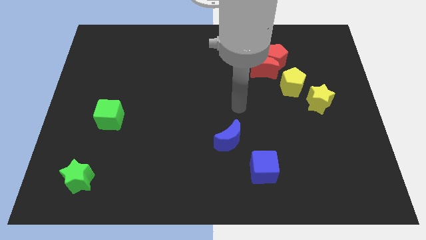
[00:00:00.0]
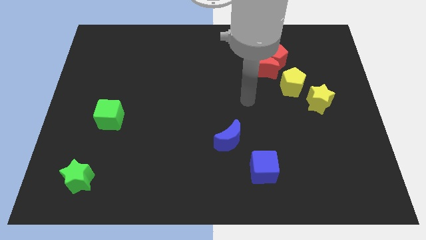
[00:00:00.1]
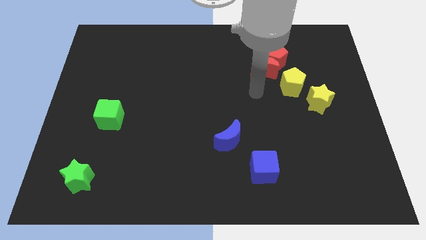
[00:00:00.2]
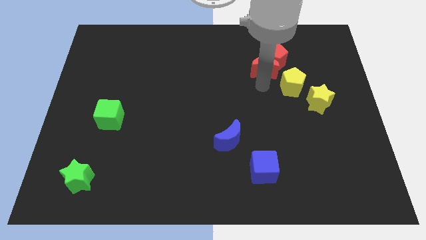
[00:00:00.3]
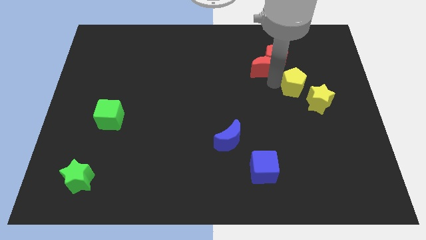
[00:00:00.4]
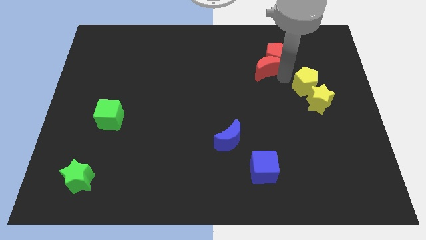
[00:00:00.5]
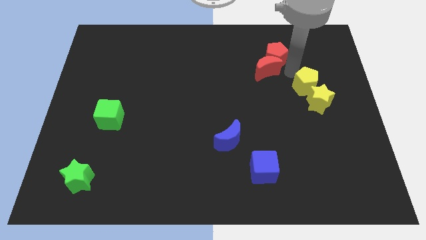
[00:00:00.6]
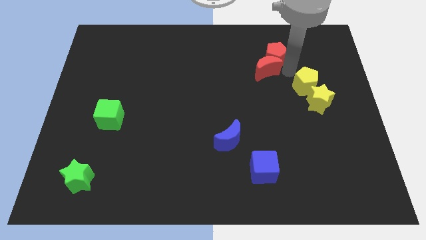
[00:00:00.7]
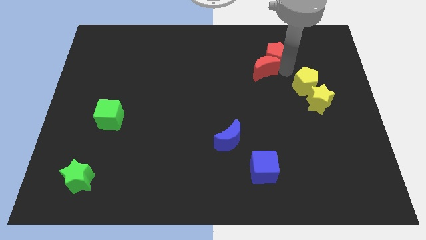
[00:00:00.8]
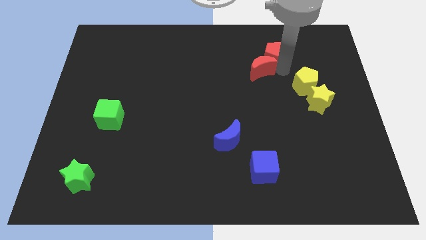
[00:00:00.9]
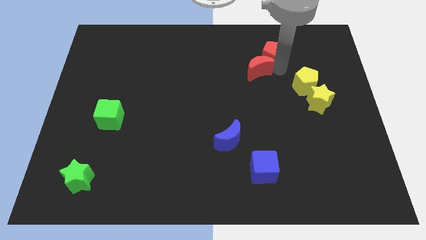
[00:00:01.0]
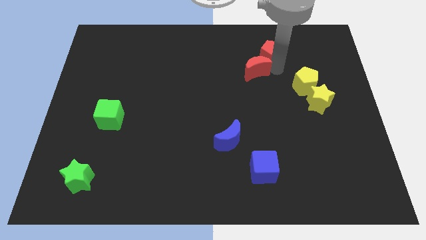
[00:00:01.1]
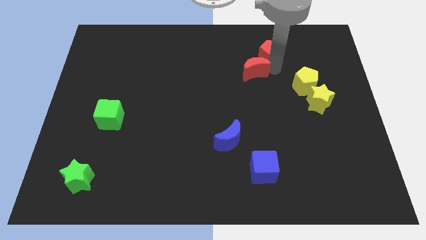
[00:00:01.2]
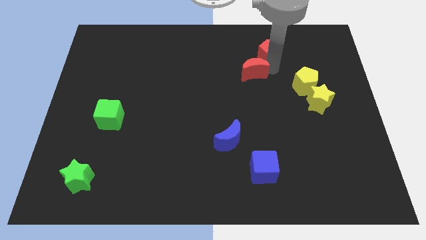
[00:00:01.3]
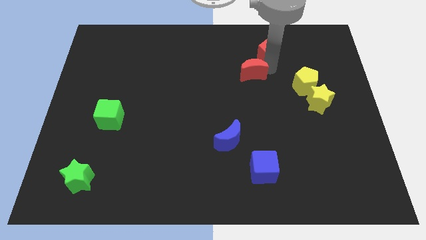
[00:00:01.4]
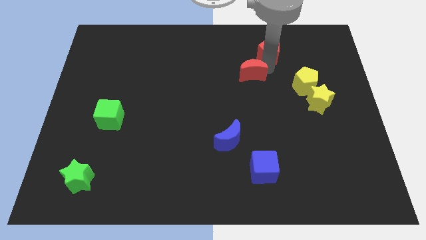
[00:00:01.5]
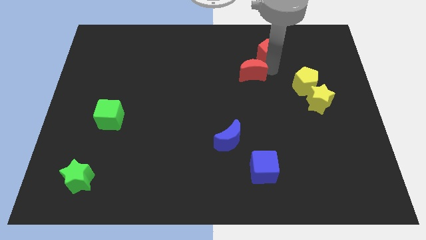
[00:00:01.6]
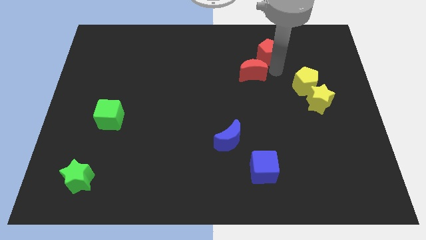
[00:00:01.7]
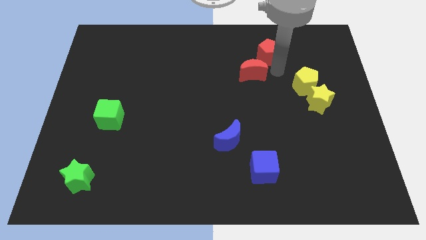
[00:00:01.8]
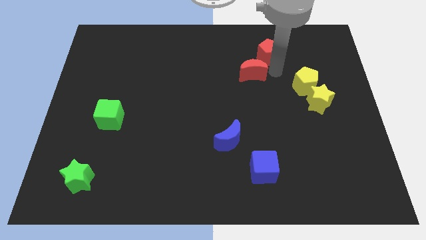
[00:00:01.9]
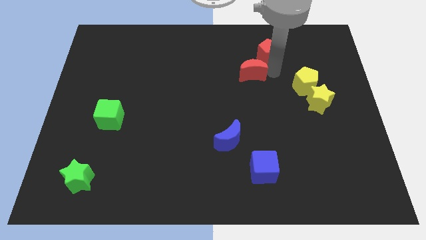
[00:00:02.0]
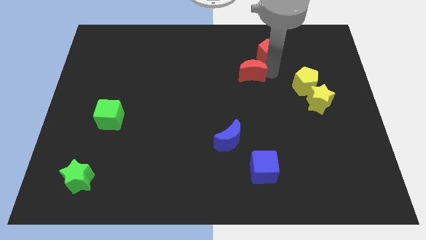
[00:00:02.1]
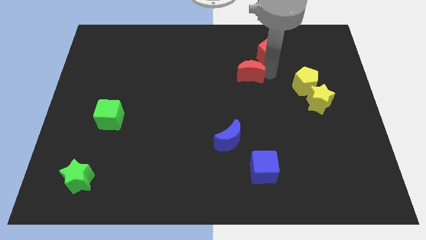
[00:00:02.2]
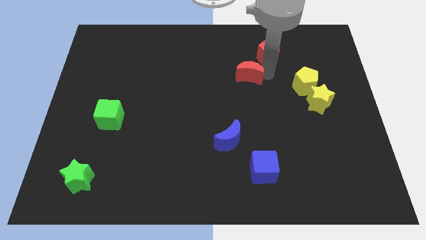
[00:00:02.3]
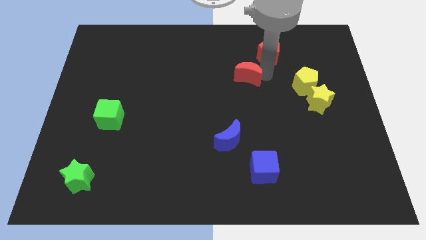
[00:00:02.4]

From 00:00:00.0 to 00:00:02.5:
pull the red moon apart from the red pentagon and yellow pentagon

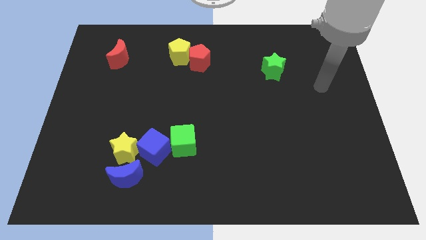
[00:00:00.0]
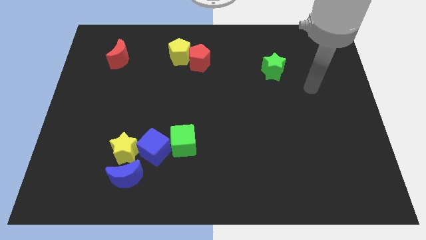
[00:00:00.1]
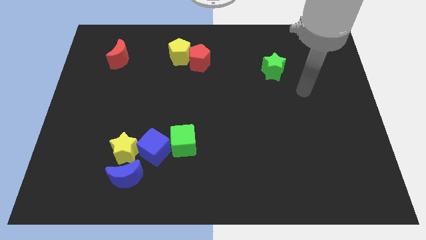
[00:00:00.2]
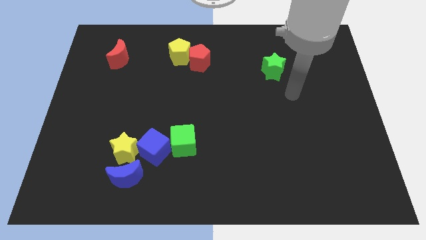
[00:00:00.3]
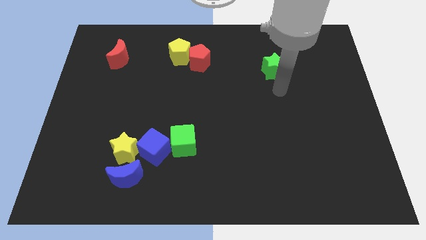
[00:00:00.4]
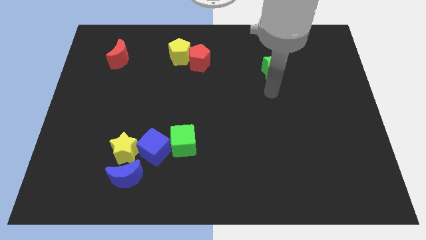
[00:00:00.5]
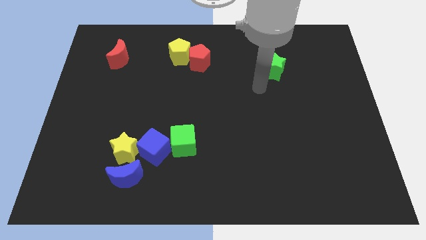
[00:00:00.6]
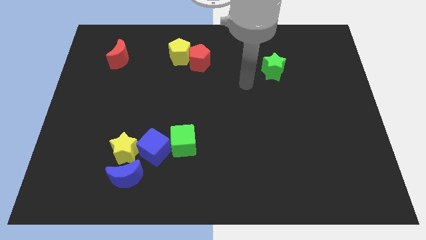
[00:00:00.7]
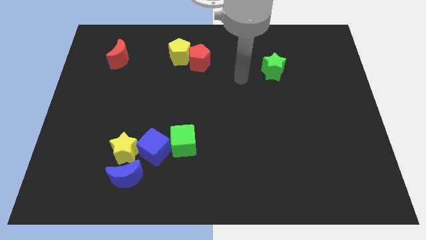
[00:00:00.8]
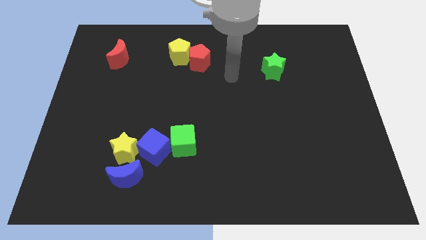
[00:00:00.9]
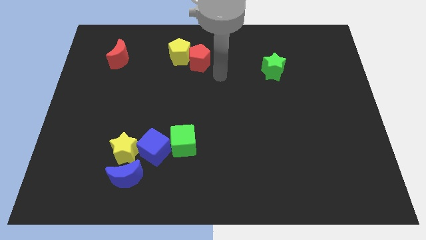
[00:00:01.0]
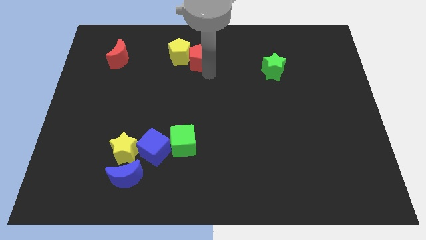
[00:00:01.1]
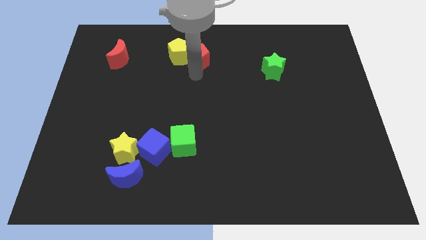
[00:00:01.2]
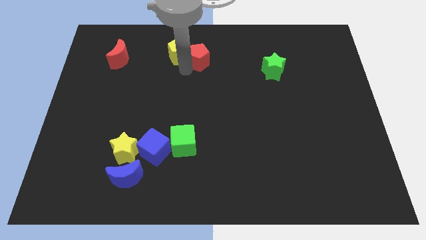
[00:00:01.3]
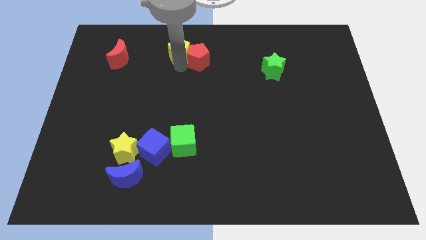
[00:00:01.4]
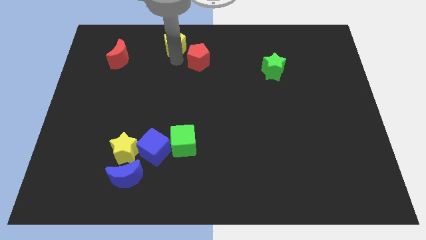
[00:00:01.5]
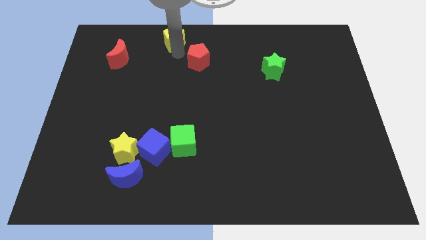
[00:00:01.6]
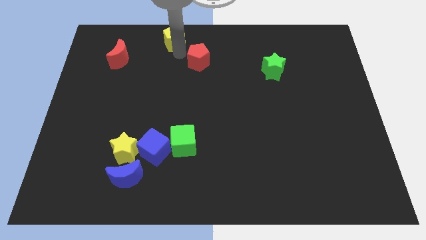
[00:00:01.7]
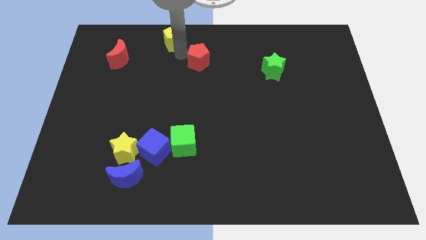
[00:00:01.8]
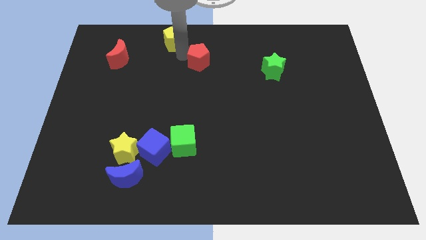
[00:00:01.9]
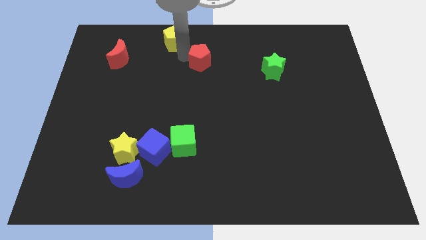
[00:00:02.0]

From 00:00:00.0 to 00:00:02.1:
pull the red pentagon apart from the yellow pentagon

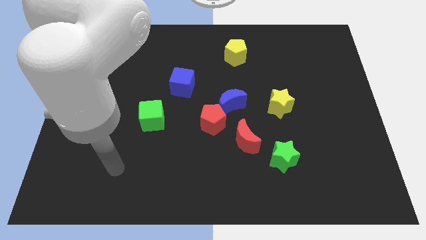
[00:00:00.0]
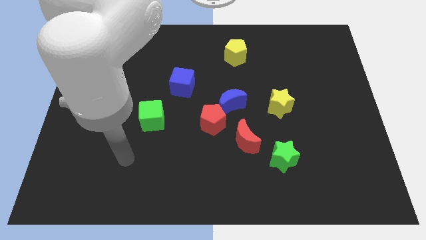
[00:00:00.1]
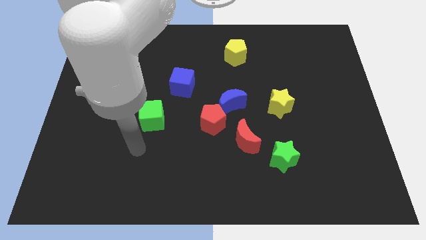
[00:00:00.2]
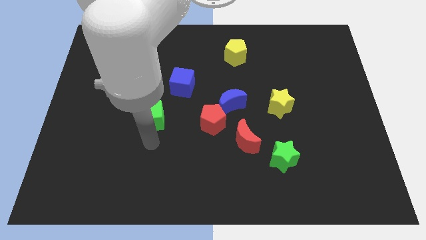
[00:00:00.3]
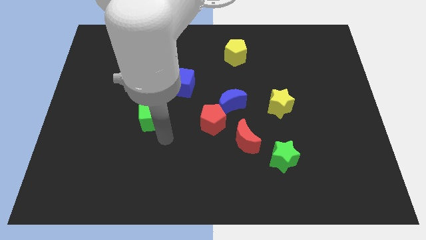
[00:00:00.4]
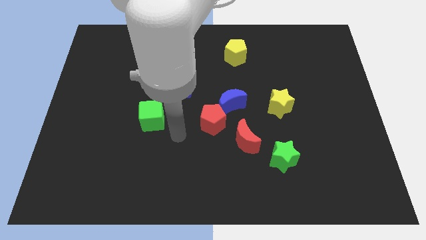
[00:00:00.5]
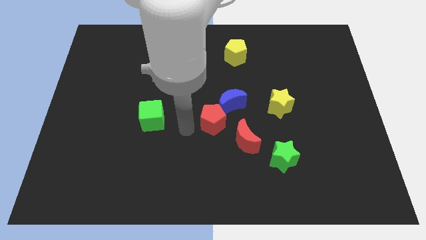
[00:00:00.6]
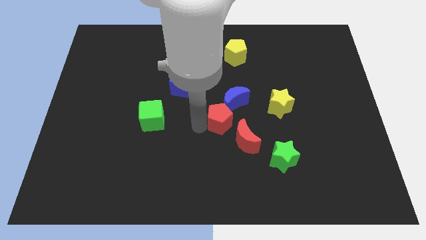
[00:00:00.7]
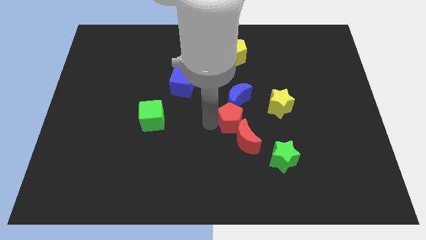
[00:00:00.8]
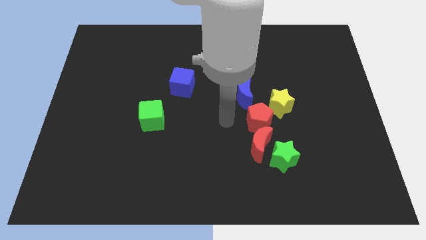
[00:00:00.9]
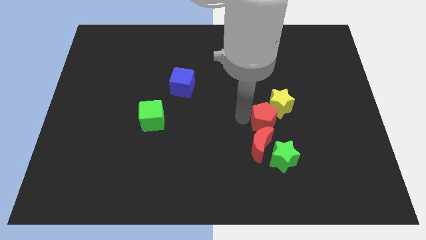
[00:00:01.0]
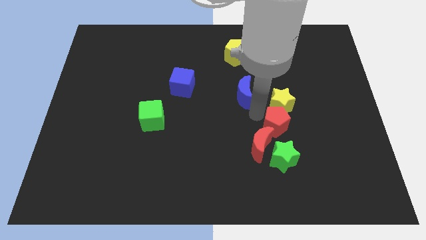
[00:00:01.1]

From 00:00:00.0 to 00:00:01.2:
pull the blue moon apart from the red pentagon

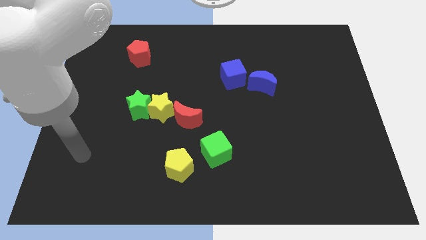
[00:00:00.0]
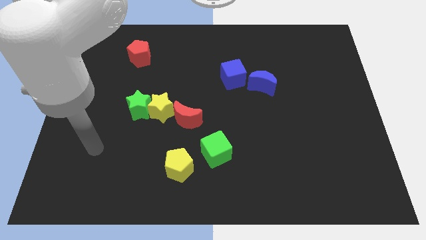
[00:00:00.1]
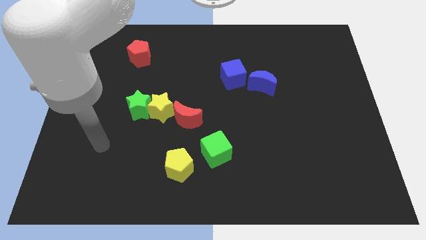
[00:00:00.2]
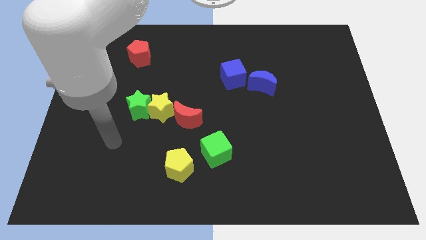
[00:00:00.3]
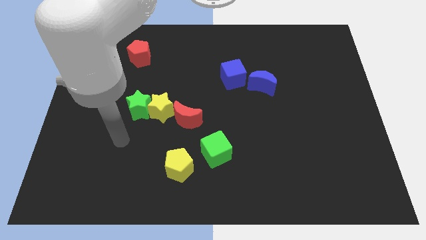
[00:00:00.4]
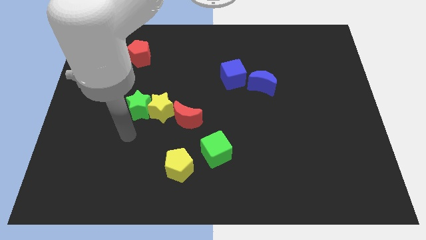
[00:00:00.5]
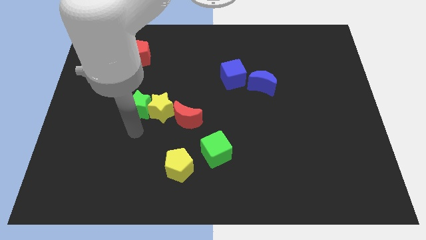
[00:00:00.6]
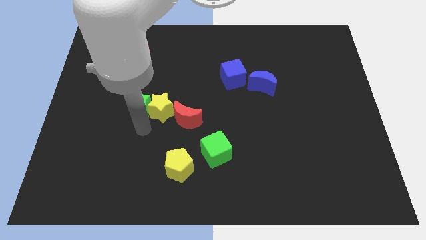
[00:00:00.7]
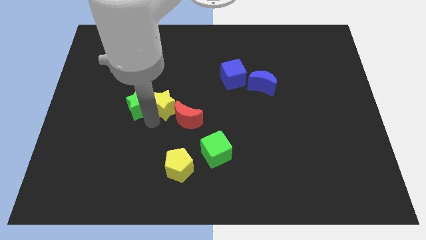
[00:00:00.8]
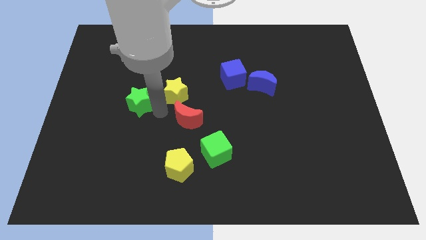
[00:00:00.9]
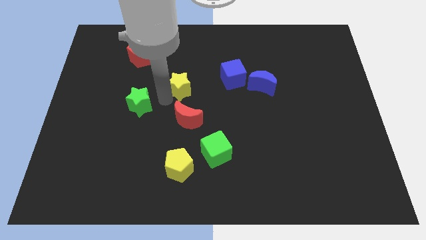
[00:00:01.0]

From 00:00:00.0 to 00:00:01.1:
move the green star away from the yellow star

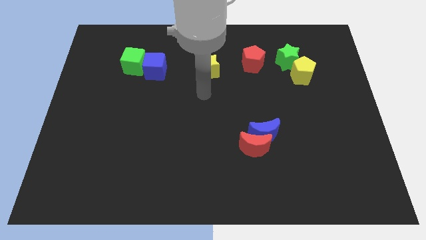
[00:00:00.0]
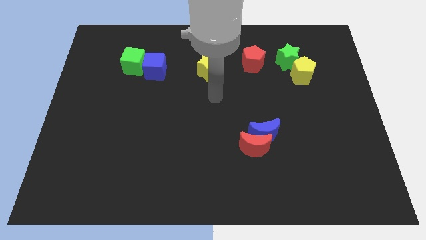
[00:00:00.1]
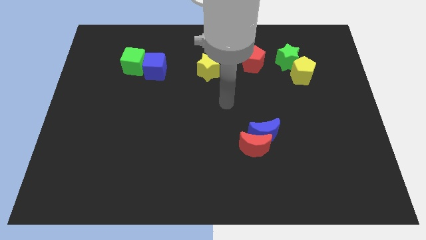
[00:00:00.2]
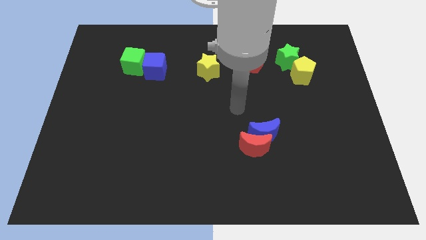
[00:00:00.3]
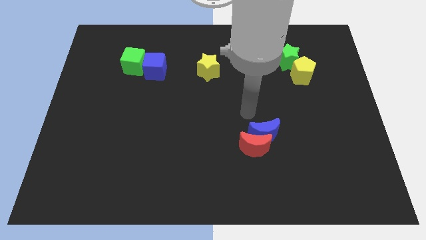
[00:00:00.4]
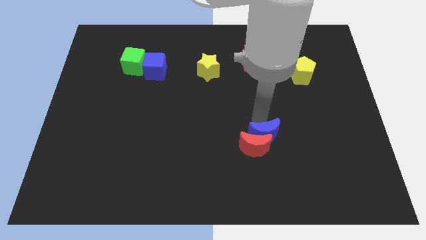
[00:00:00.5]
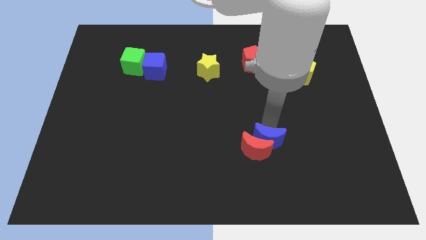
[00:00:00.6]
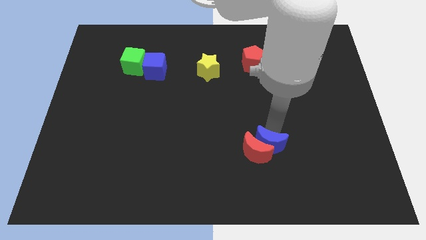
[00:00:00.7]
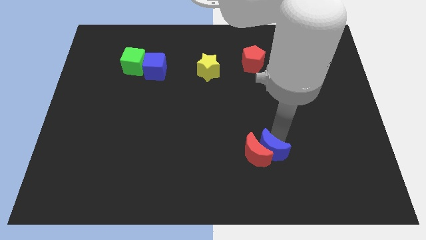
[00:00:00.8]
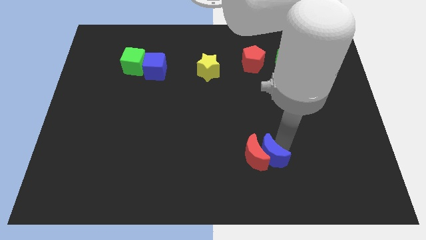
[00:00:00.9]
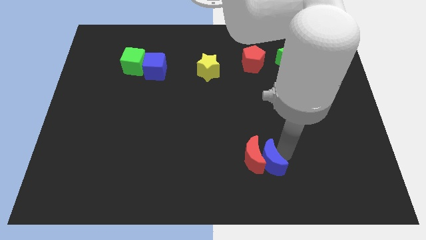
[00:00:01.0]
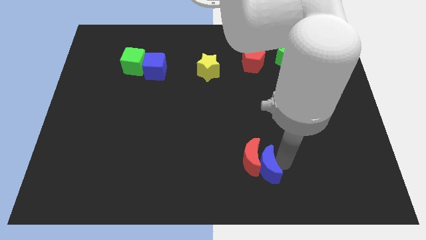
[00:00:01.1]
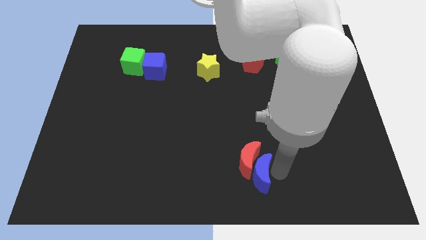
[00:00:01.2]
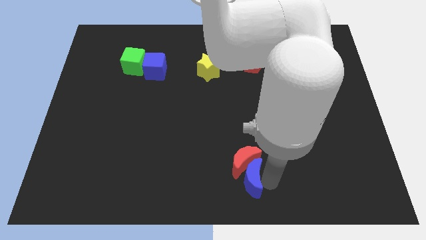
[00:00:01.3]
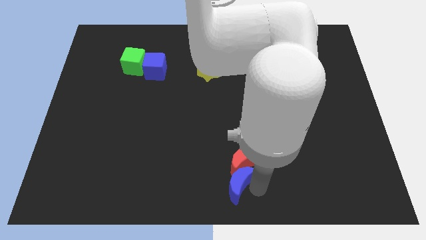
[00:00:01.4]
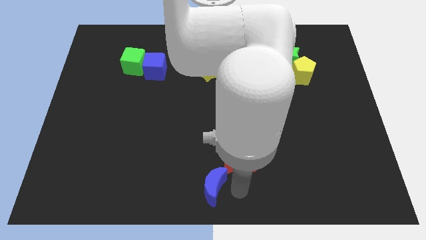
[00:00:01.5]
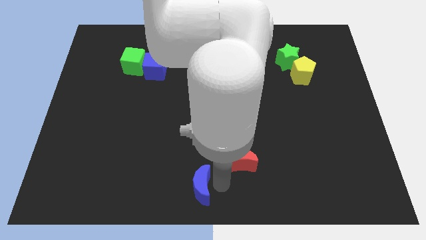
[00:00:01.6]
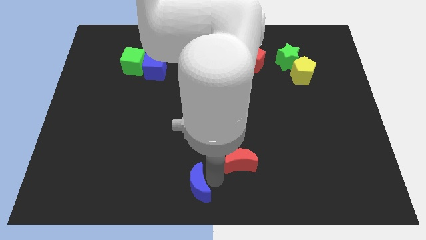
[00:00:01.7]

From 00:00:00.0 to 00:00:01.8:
separate the red moon from the blue moon

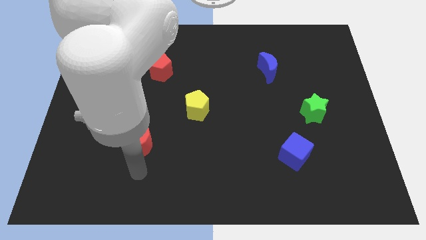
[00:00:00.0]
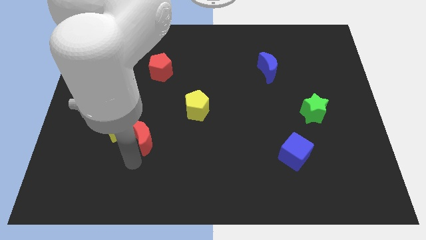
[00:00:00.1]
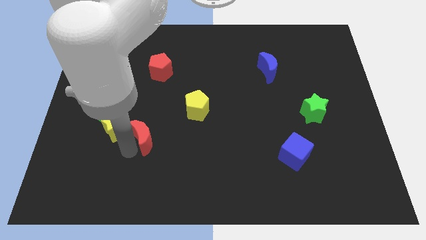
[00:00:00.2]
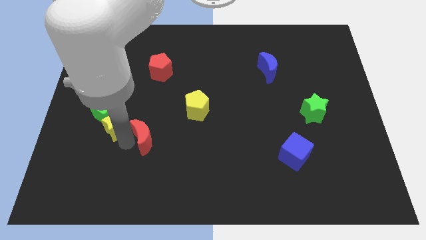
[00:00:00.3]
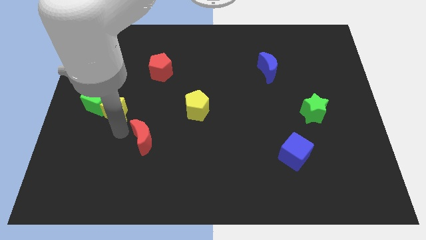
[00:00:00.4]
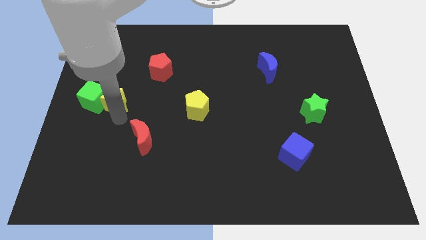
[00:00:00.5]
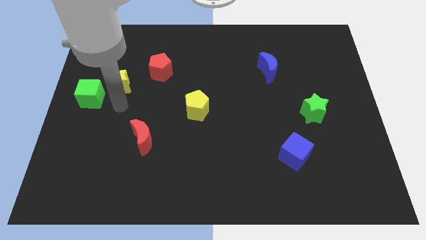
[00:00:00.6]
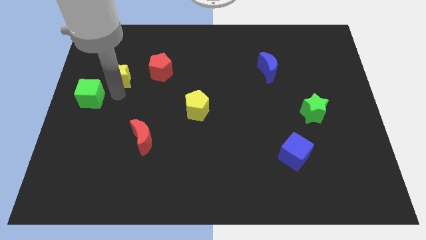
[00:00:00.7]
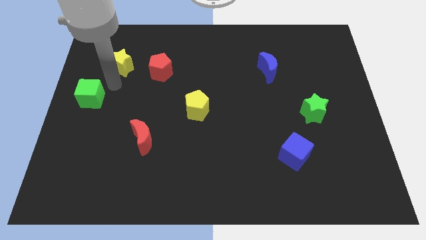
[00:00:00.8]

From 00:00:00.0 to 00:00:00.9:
pull the green cube apart from the yellow star
